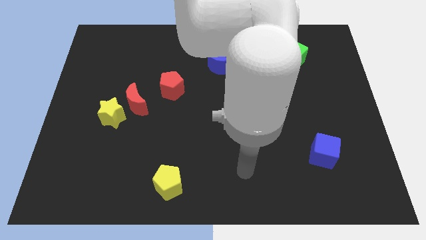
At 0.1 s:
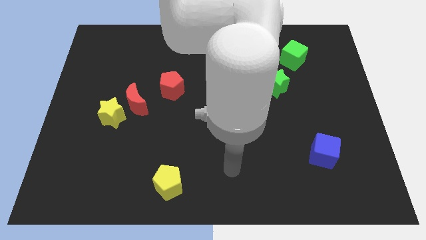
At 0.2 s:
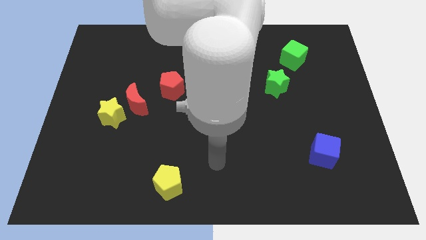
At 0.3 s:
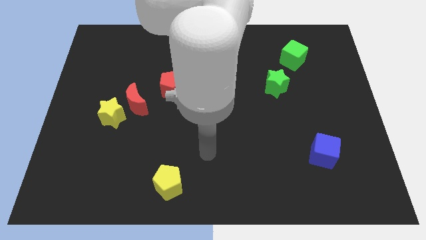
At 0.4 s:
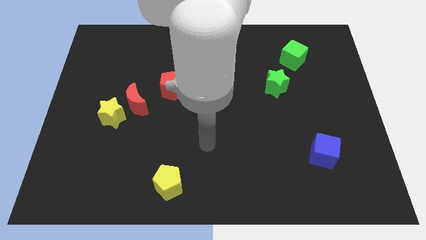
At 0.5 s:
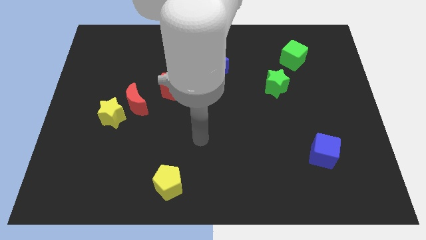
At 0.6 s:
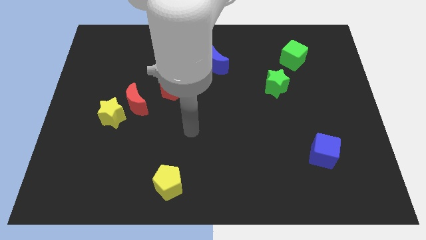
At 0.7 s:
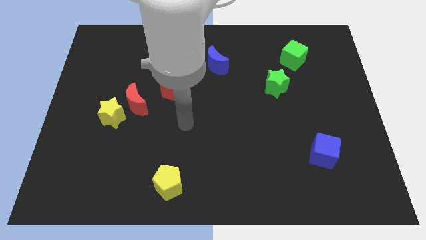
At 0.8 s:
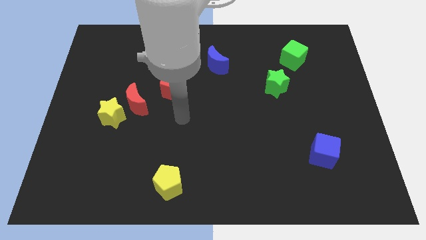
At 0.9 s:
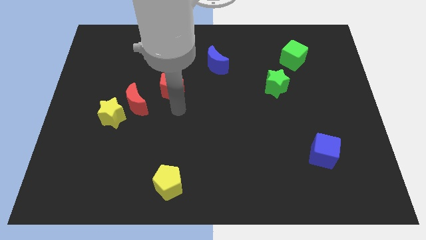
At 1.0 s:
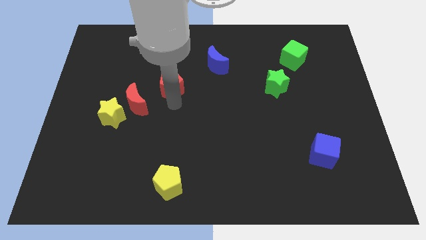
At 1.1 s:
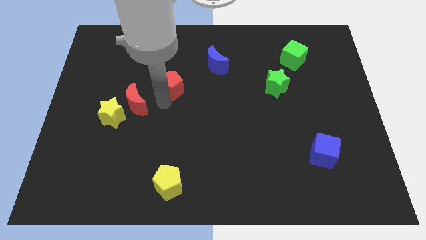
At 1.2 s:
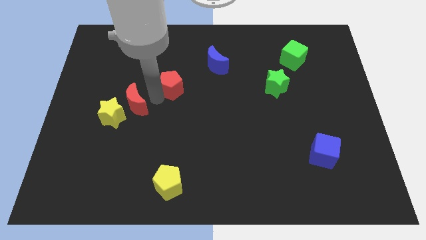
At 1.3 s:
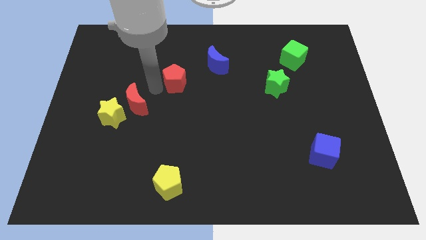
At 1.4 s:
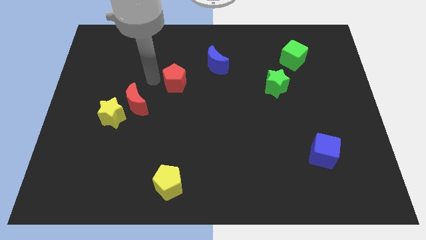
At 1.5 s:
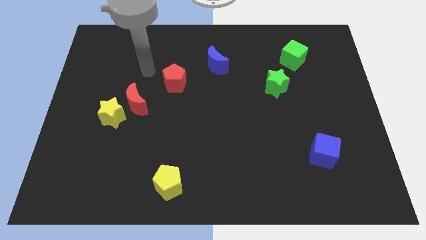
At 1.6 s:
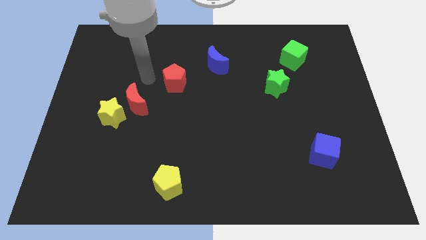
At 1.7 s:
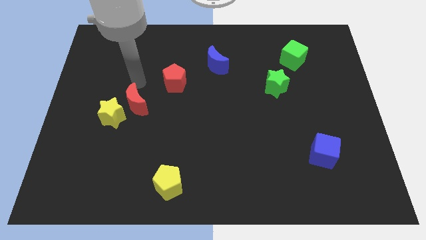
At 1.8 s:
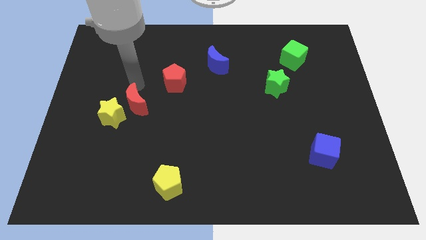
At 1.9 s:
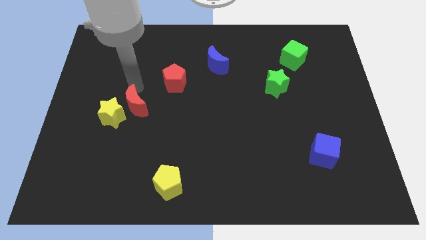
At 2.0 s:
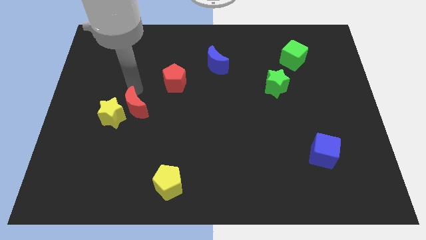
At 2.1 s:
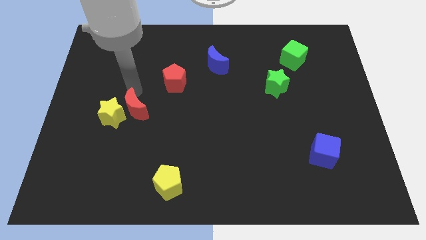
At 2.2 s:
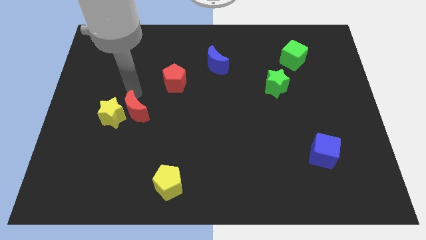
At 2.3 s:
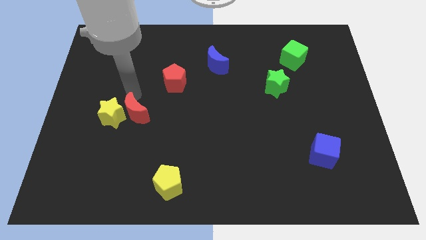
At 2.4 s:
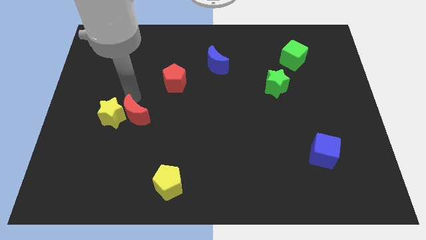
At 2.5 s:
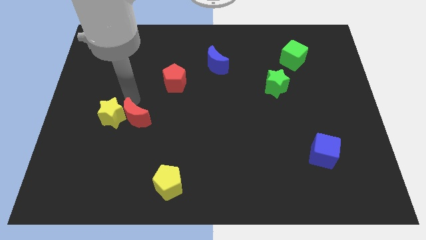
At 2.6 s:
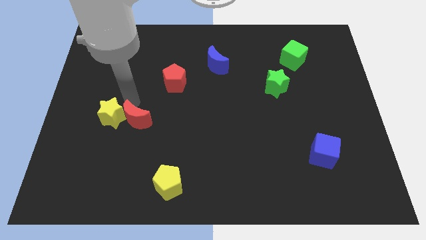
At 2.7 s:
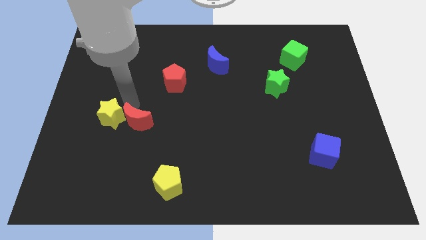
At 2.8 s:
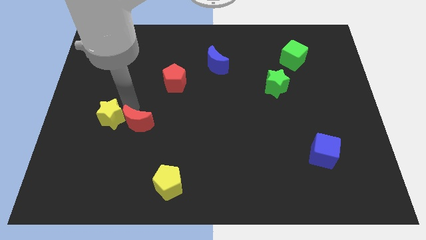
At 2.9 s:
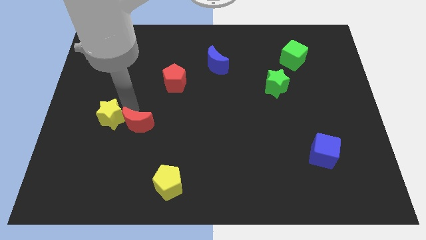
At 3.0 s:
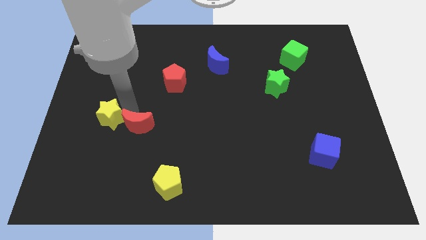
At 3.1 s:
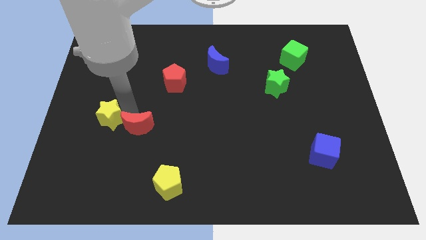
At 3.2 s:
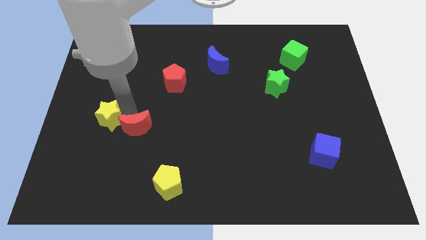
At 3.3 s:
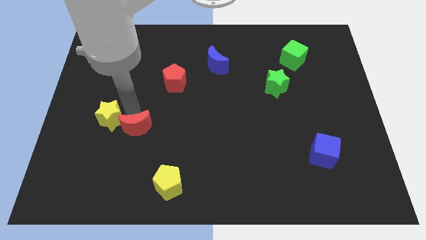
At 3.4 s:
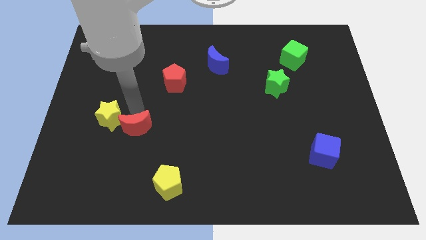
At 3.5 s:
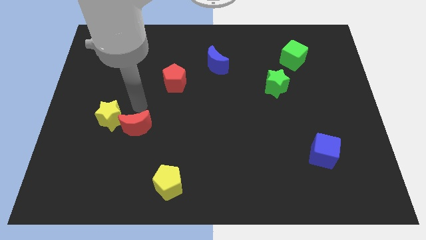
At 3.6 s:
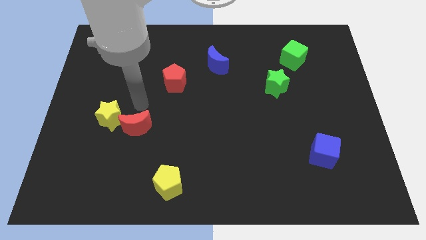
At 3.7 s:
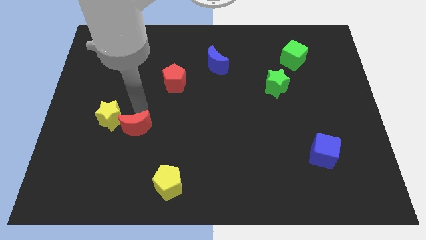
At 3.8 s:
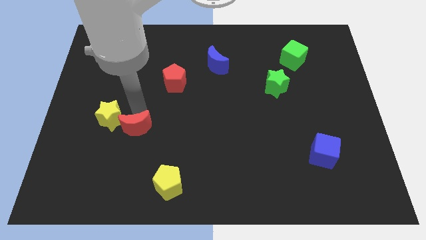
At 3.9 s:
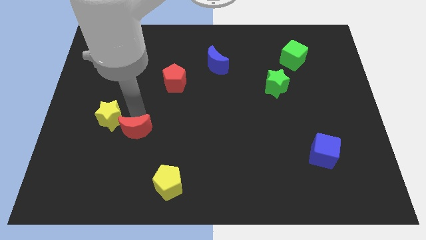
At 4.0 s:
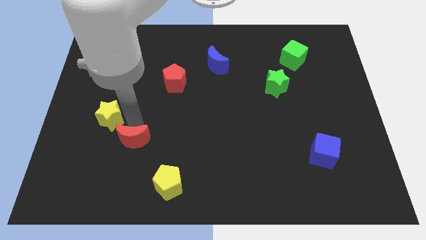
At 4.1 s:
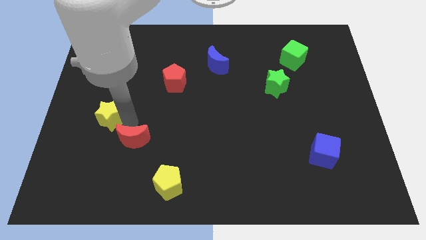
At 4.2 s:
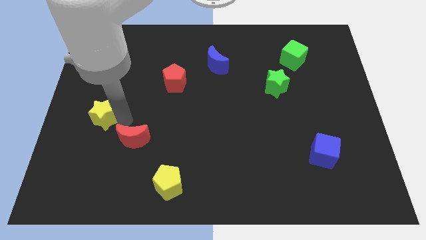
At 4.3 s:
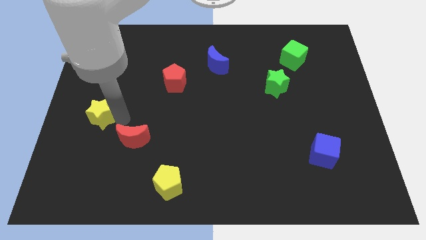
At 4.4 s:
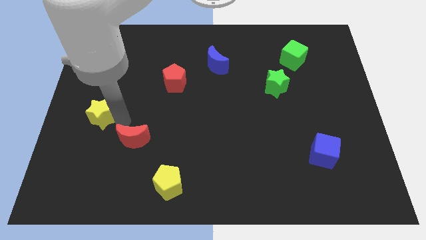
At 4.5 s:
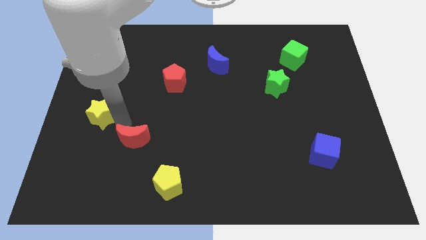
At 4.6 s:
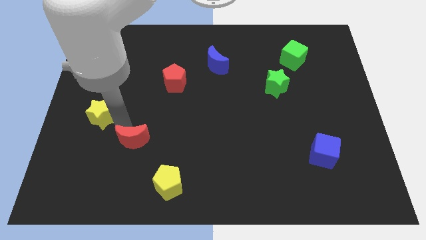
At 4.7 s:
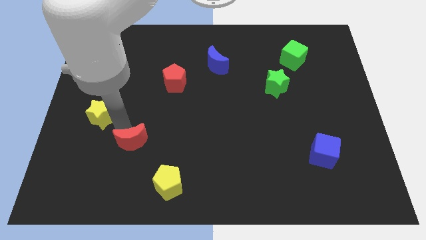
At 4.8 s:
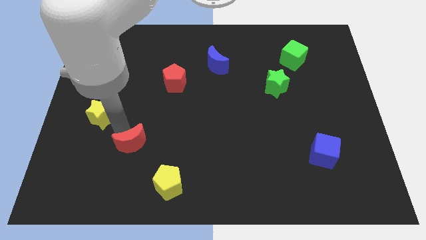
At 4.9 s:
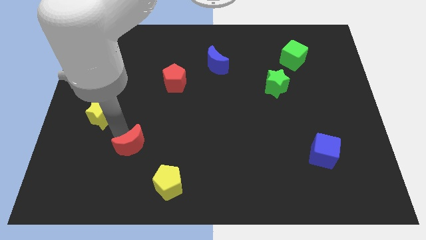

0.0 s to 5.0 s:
move the red moon to the top left side of the yellow pentagon

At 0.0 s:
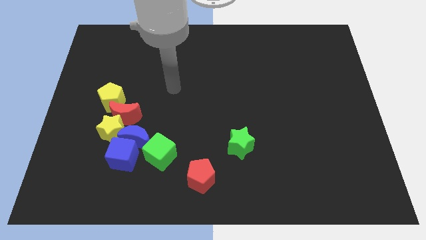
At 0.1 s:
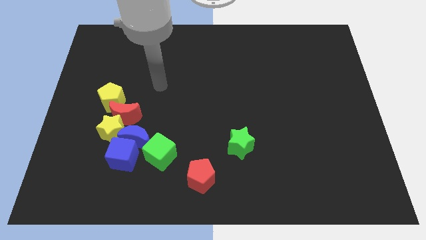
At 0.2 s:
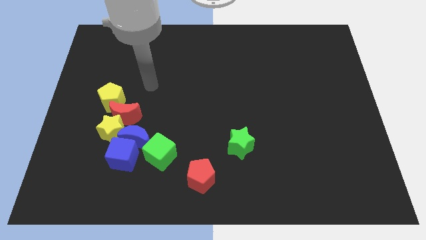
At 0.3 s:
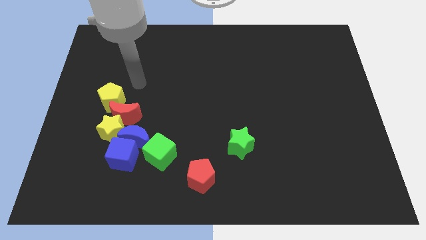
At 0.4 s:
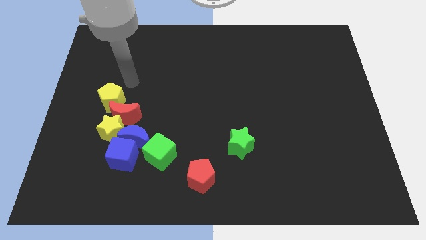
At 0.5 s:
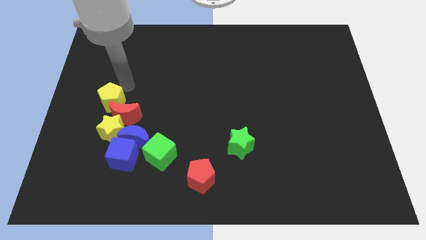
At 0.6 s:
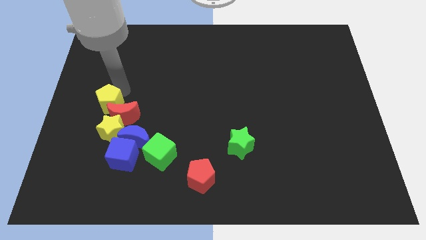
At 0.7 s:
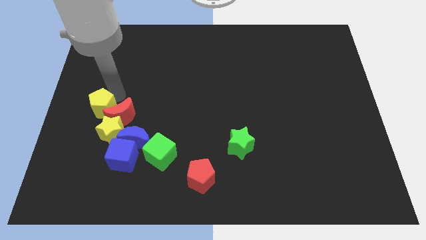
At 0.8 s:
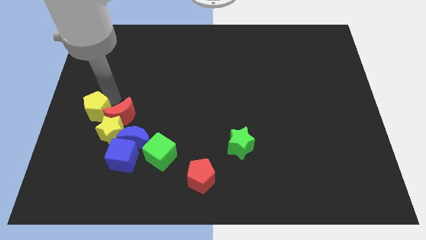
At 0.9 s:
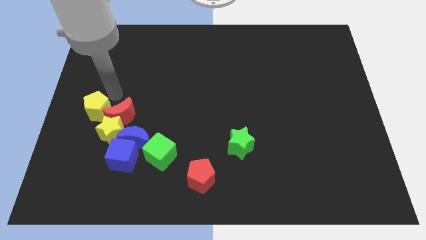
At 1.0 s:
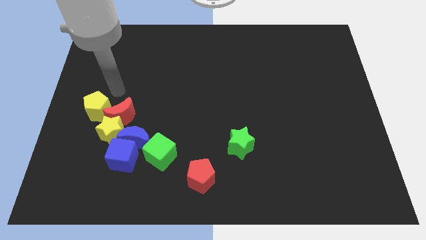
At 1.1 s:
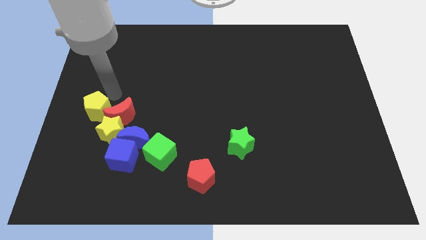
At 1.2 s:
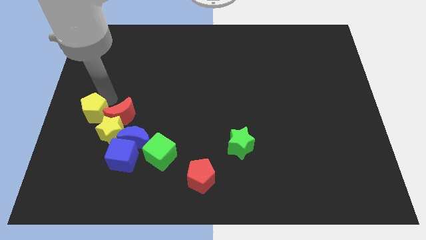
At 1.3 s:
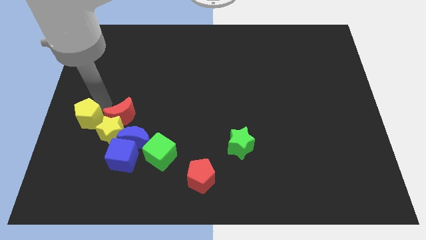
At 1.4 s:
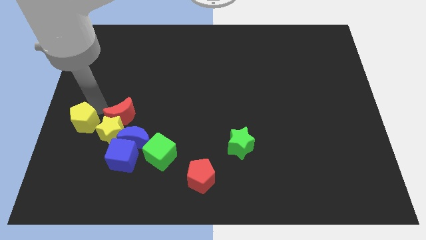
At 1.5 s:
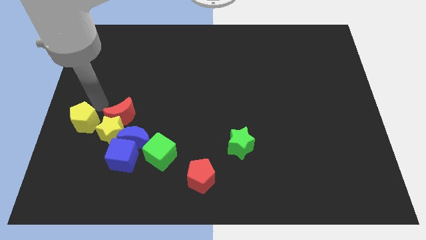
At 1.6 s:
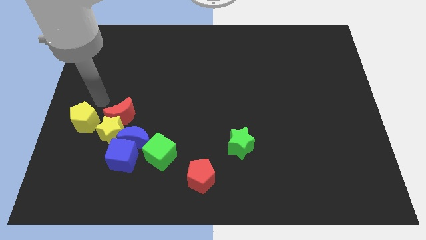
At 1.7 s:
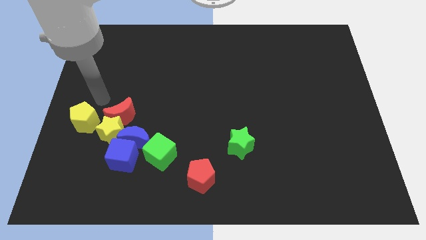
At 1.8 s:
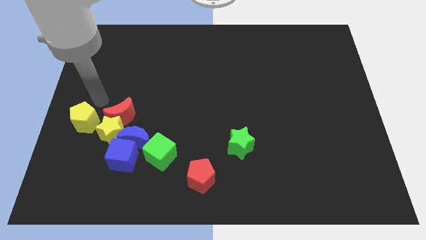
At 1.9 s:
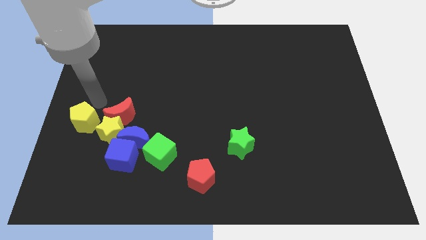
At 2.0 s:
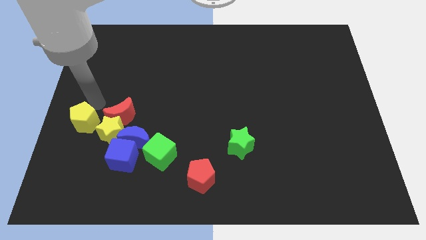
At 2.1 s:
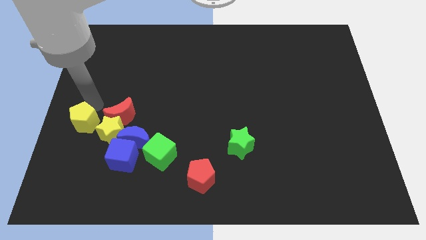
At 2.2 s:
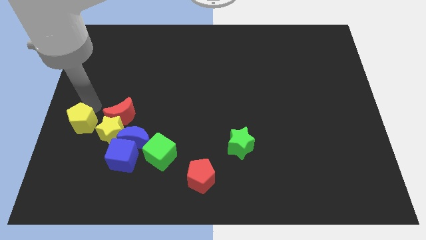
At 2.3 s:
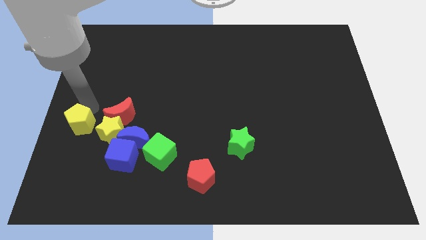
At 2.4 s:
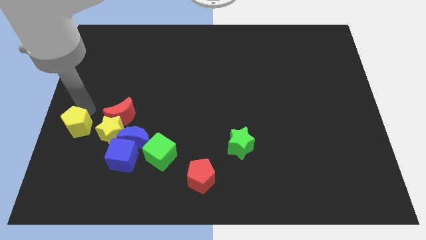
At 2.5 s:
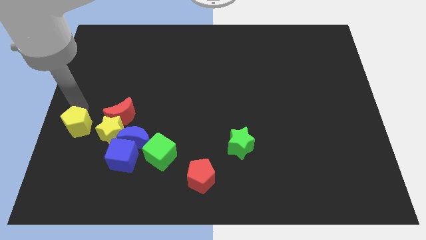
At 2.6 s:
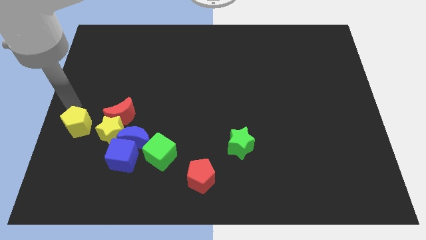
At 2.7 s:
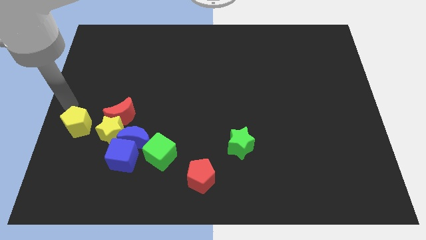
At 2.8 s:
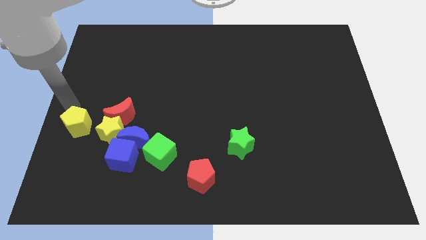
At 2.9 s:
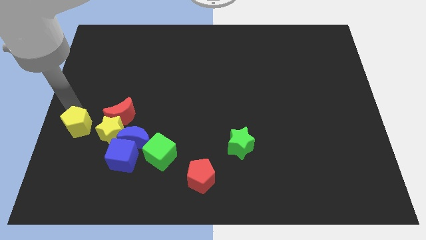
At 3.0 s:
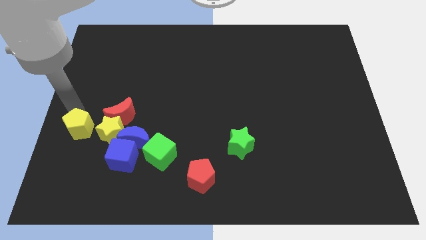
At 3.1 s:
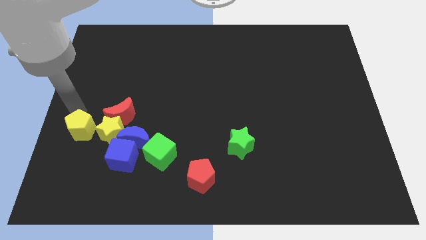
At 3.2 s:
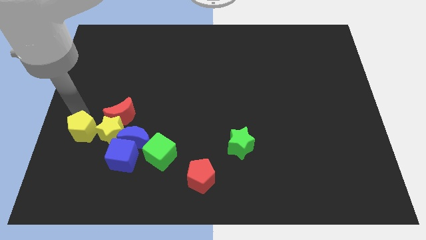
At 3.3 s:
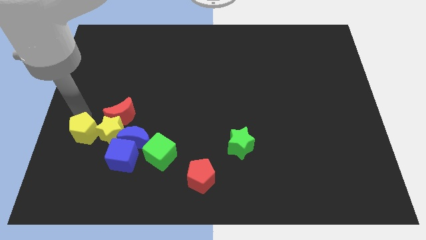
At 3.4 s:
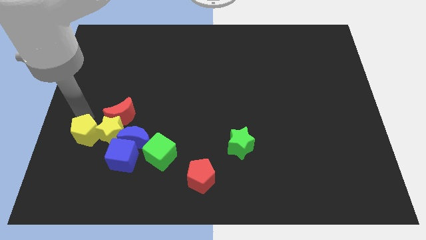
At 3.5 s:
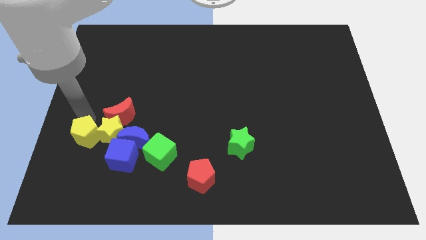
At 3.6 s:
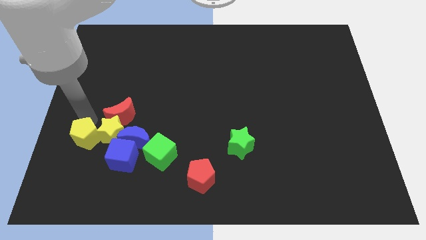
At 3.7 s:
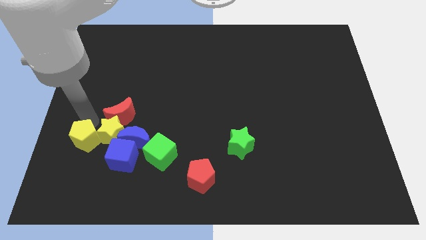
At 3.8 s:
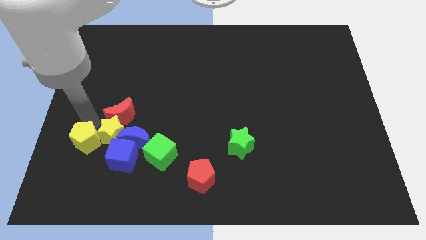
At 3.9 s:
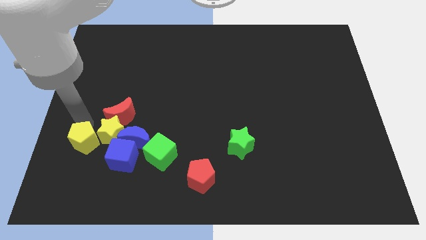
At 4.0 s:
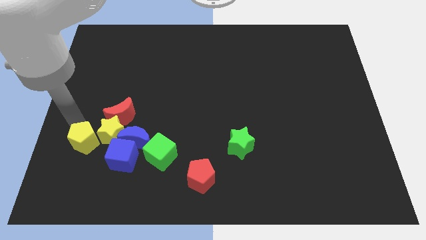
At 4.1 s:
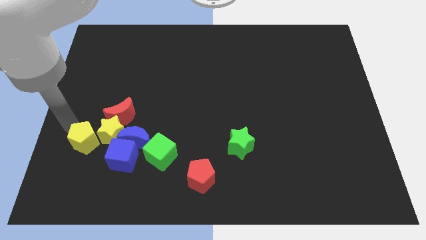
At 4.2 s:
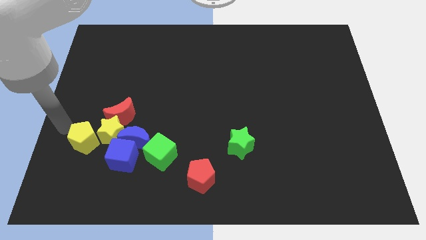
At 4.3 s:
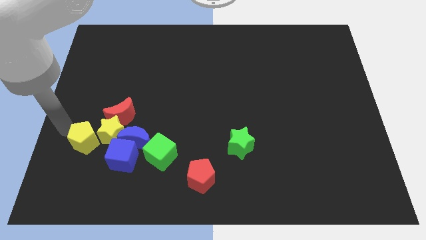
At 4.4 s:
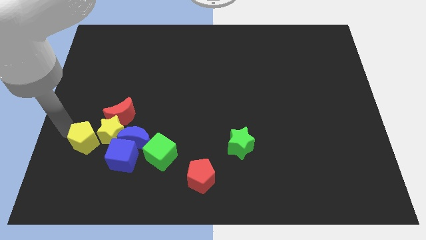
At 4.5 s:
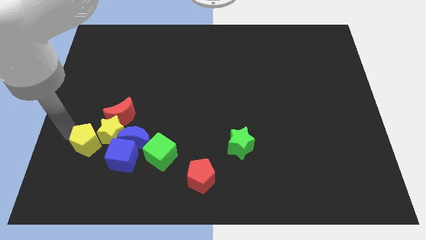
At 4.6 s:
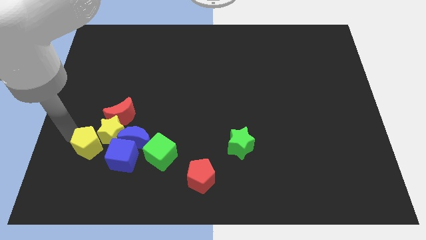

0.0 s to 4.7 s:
slide the yellow pentagon to the left side of the green cube
